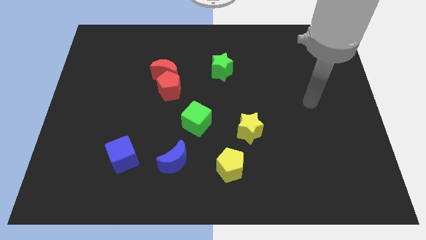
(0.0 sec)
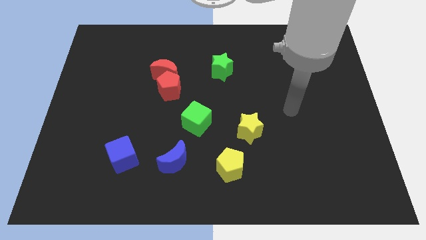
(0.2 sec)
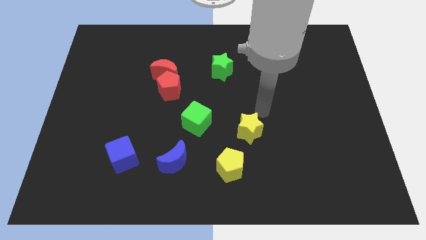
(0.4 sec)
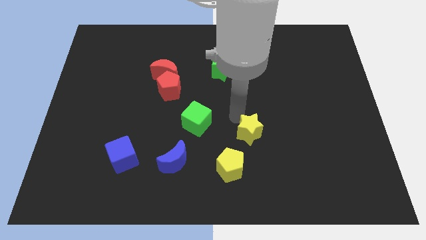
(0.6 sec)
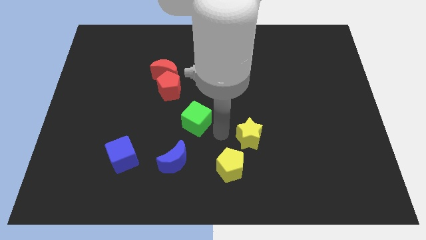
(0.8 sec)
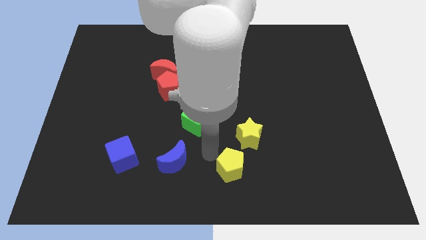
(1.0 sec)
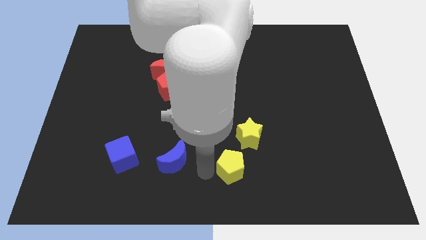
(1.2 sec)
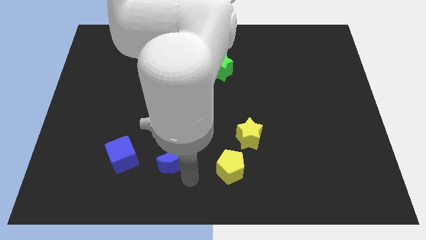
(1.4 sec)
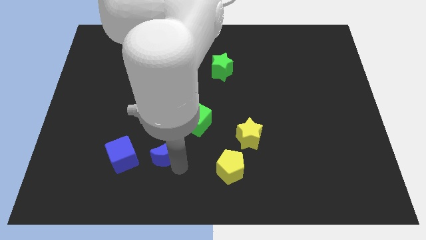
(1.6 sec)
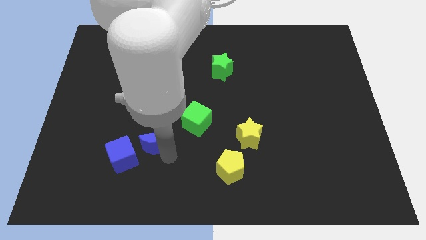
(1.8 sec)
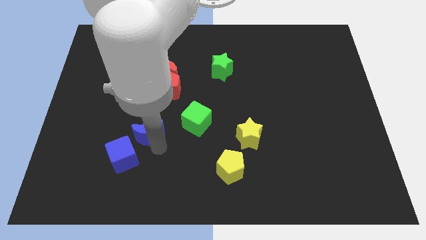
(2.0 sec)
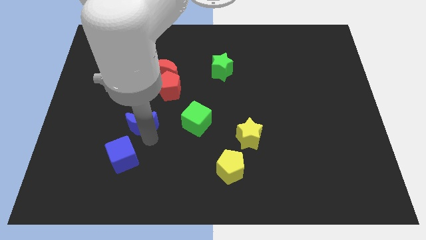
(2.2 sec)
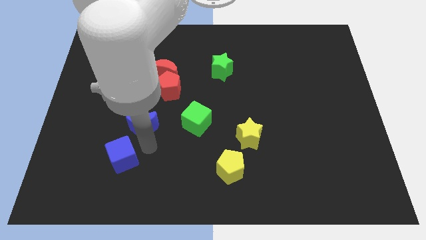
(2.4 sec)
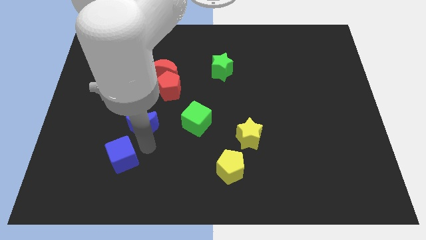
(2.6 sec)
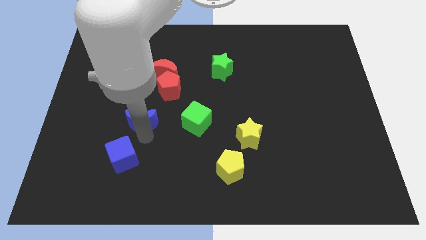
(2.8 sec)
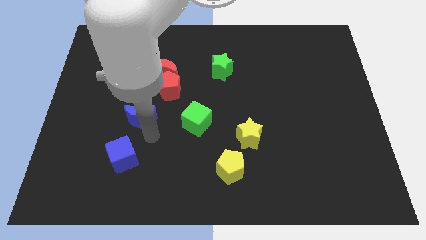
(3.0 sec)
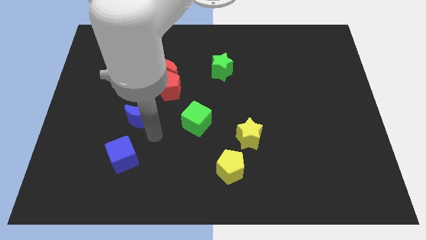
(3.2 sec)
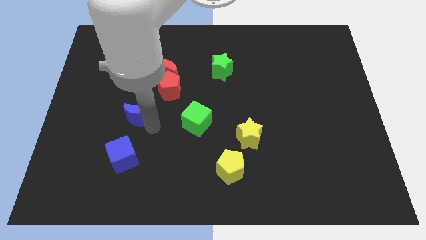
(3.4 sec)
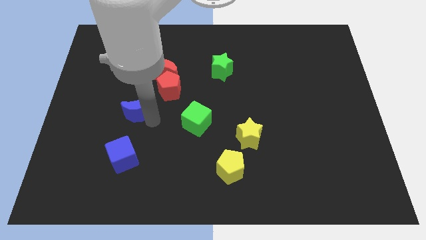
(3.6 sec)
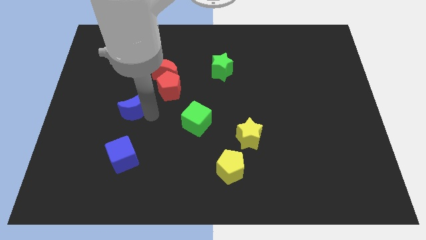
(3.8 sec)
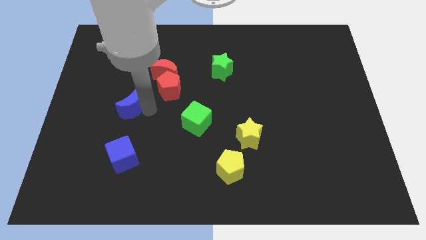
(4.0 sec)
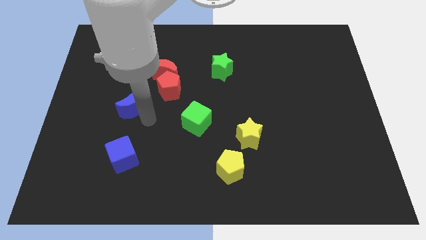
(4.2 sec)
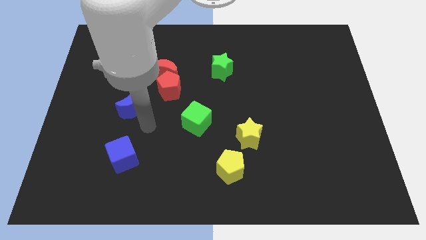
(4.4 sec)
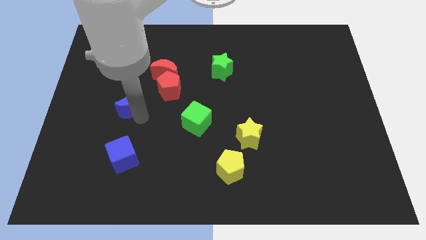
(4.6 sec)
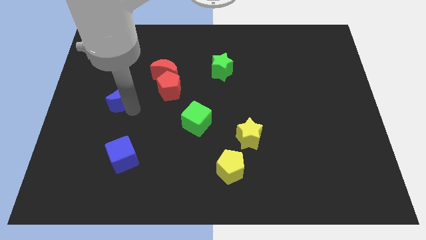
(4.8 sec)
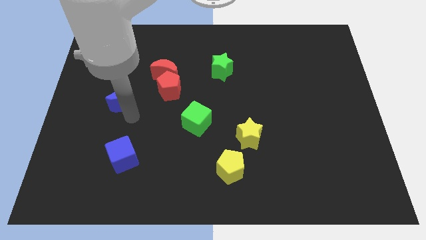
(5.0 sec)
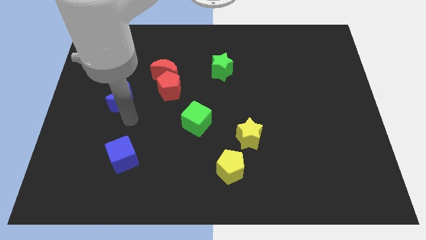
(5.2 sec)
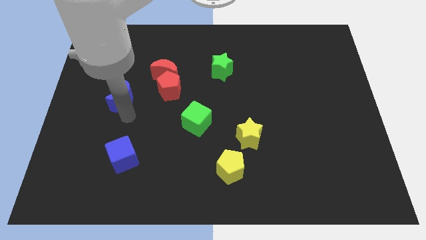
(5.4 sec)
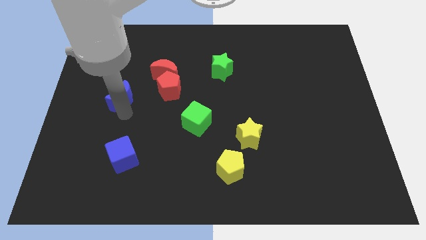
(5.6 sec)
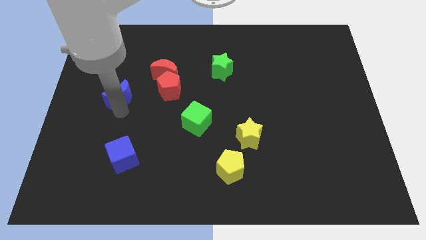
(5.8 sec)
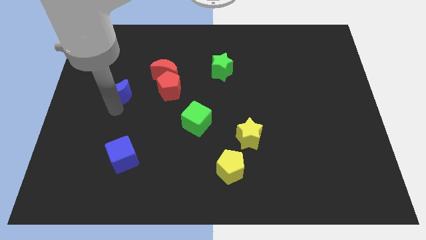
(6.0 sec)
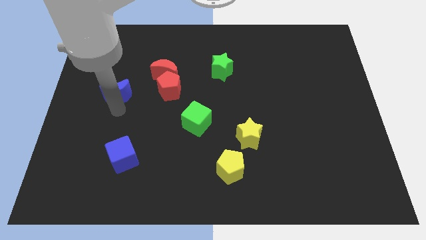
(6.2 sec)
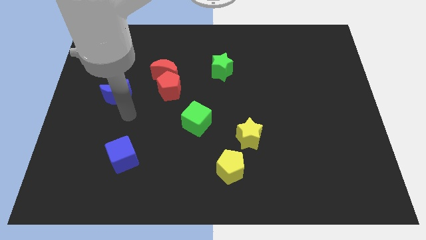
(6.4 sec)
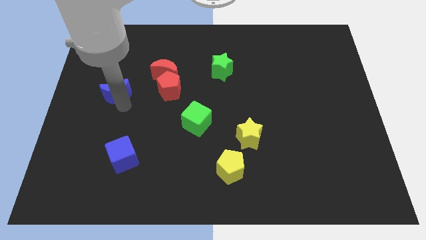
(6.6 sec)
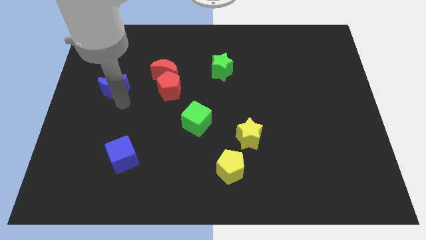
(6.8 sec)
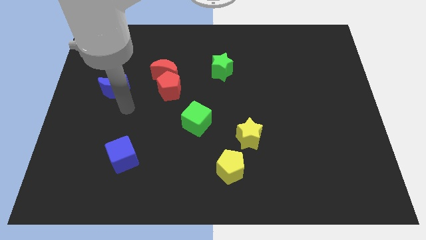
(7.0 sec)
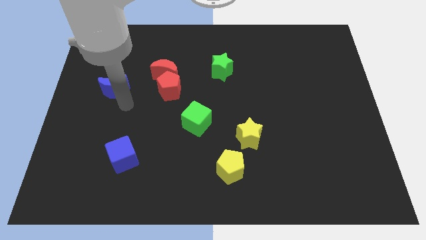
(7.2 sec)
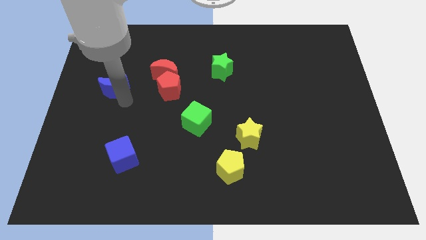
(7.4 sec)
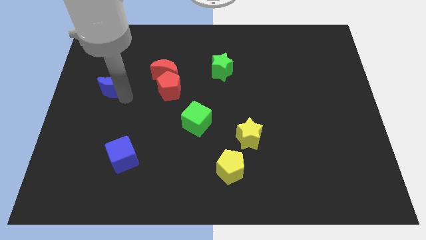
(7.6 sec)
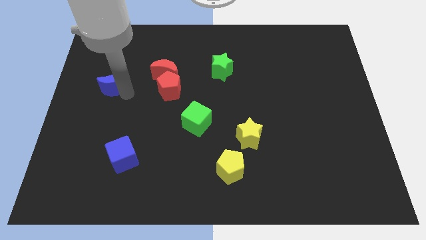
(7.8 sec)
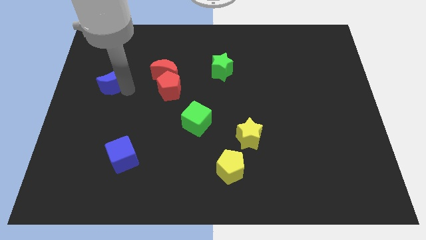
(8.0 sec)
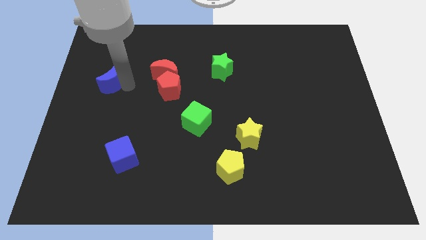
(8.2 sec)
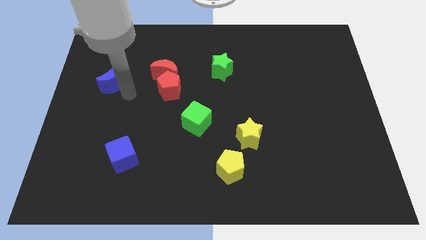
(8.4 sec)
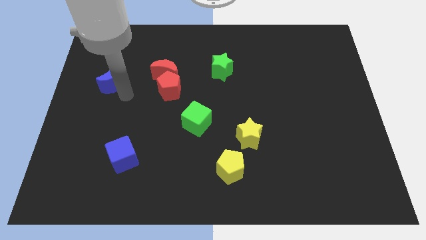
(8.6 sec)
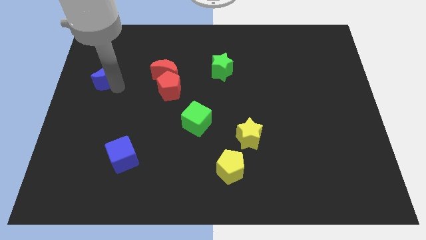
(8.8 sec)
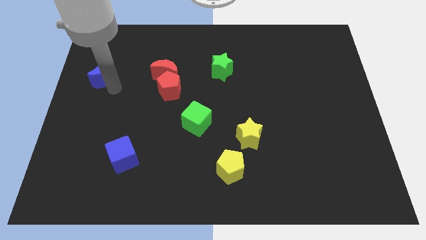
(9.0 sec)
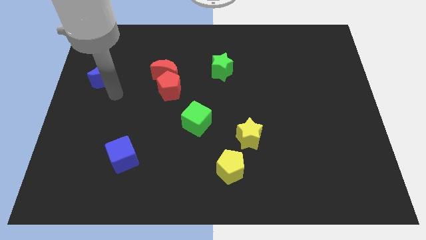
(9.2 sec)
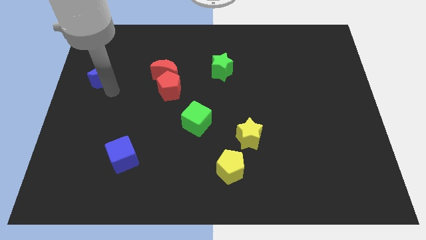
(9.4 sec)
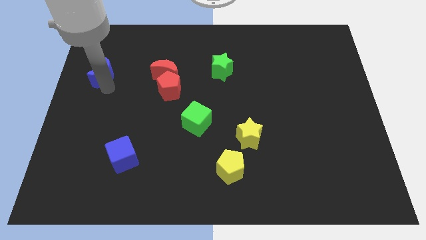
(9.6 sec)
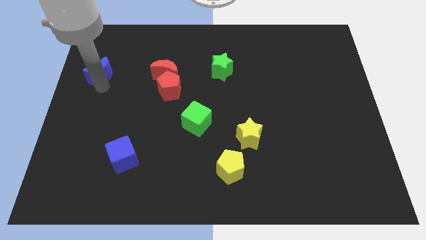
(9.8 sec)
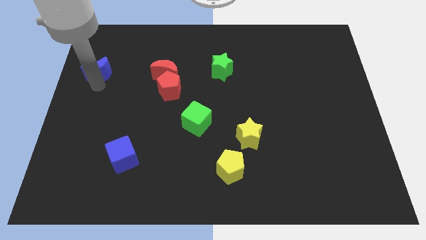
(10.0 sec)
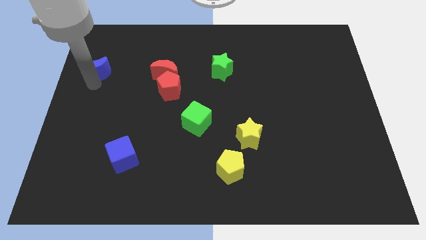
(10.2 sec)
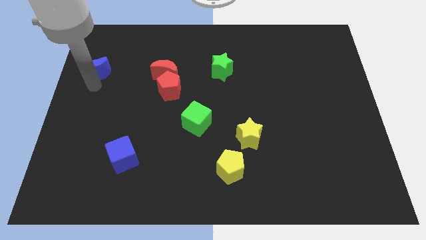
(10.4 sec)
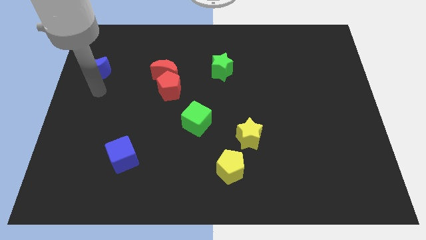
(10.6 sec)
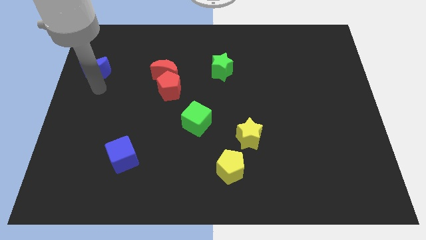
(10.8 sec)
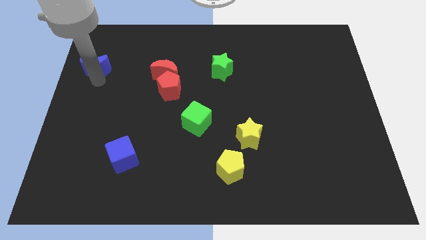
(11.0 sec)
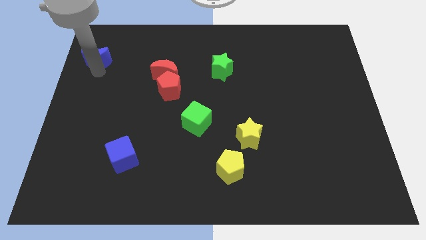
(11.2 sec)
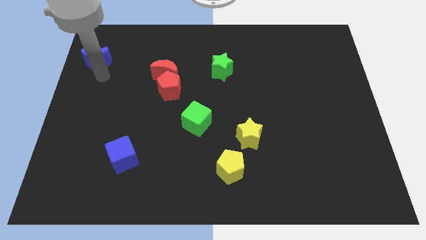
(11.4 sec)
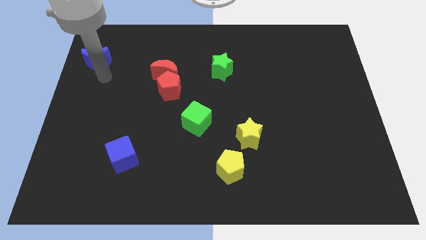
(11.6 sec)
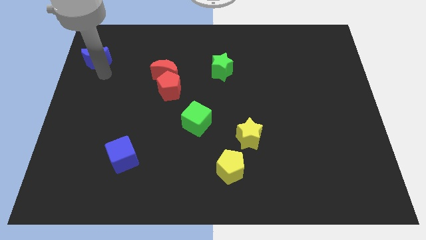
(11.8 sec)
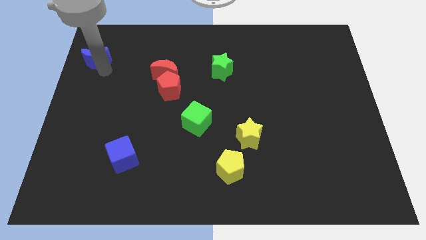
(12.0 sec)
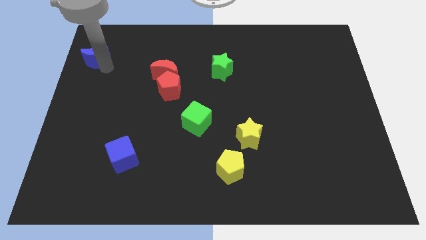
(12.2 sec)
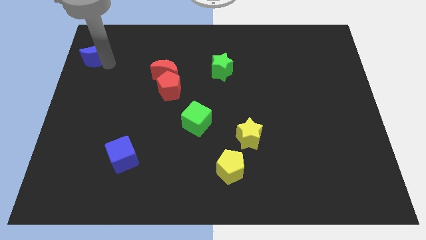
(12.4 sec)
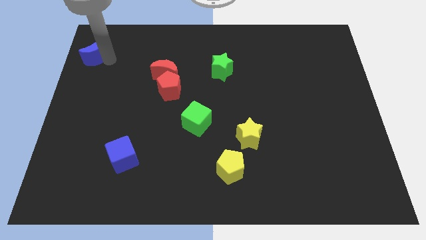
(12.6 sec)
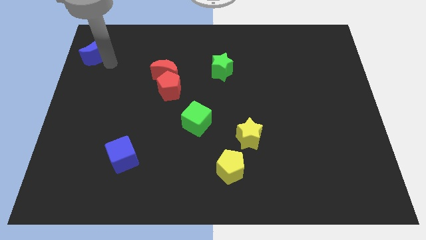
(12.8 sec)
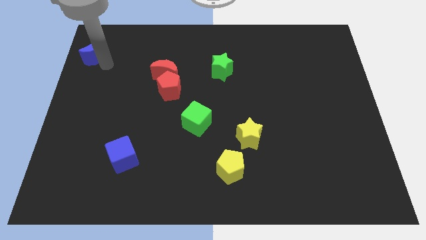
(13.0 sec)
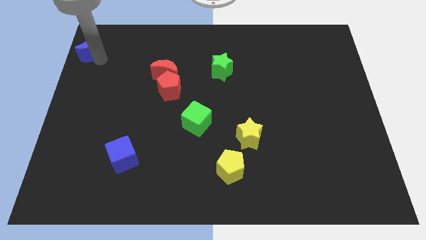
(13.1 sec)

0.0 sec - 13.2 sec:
slide the blue moon to the top left
